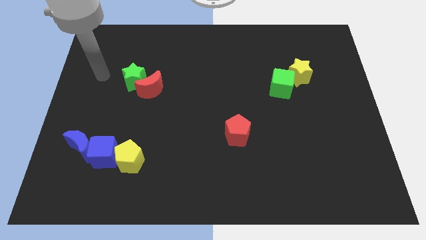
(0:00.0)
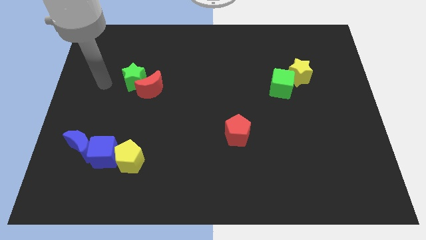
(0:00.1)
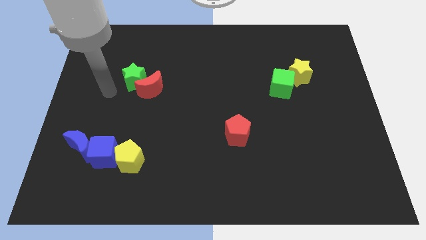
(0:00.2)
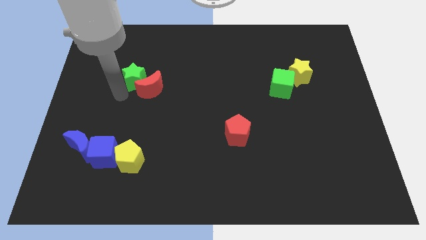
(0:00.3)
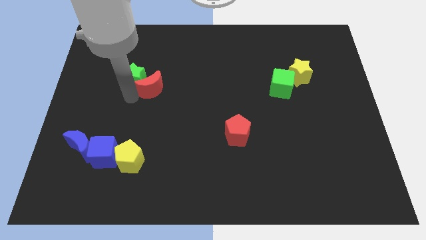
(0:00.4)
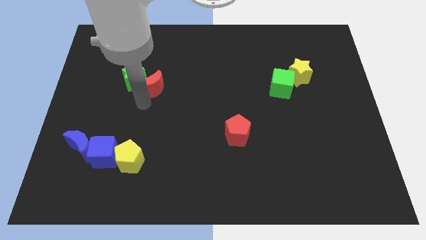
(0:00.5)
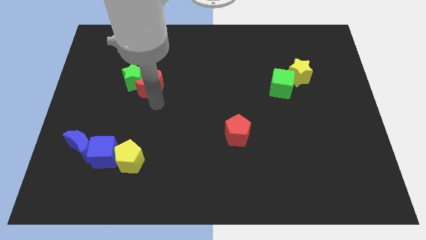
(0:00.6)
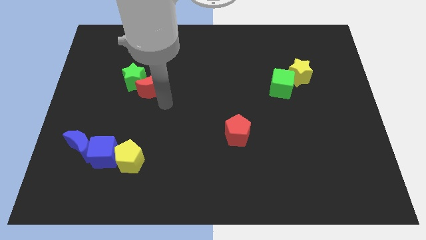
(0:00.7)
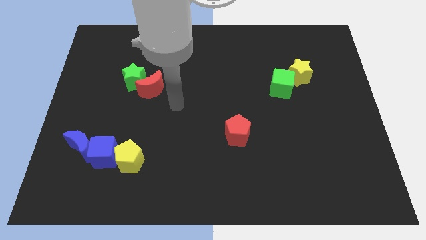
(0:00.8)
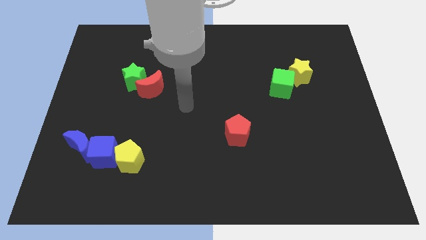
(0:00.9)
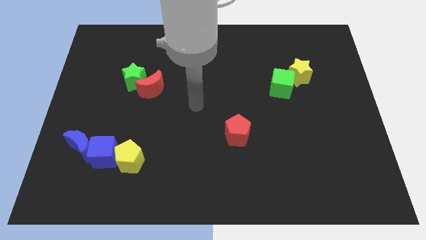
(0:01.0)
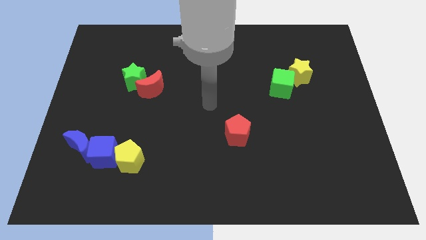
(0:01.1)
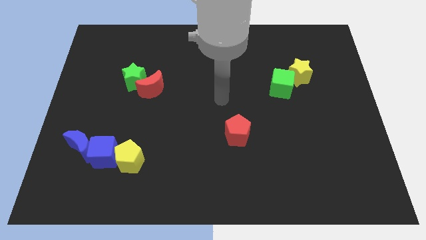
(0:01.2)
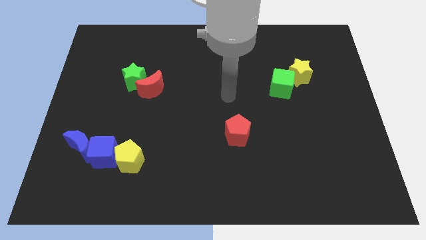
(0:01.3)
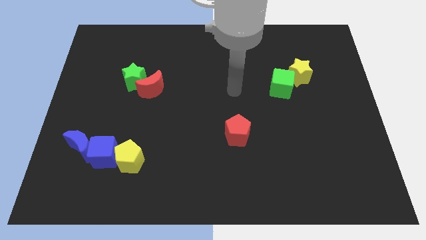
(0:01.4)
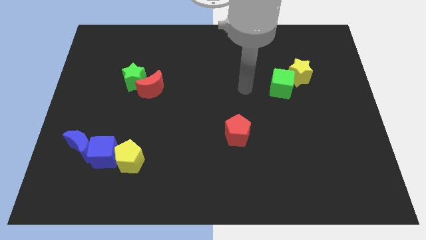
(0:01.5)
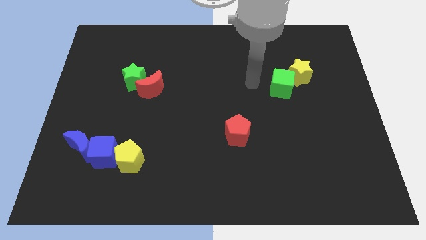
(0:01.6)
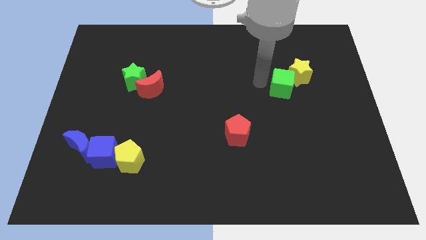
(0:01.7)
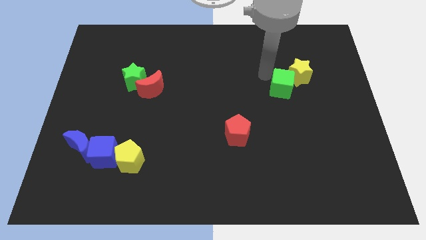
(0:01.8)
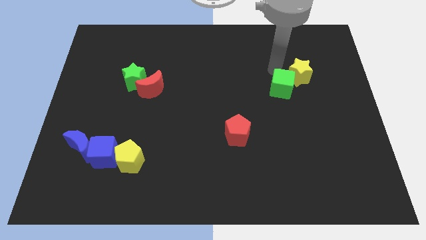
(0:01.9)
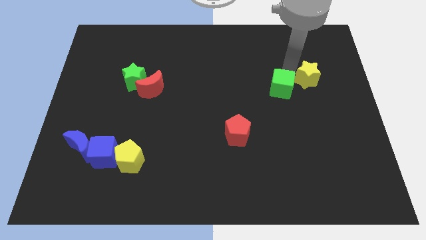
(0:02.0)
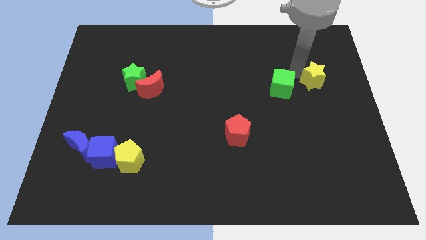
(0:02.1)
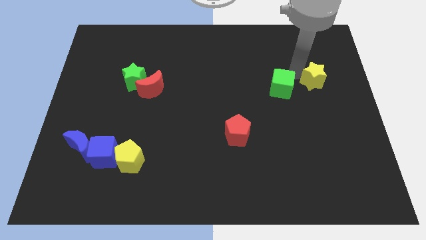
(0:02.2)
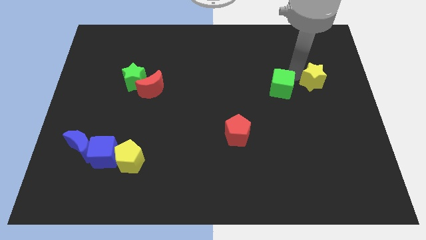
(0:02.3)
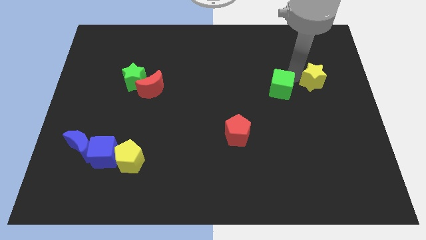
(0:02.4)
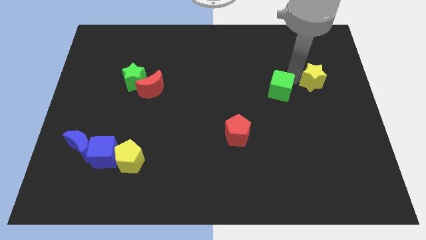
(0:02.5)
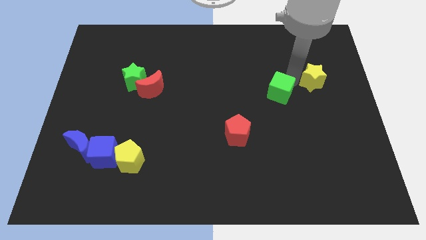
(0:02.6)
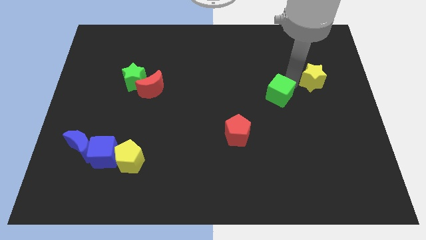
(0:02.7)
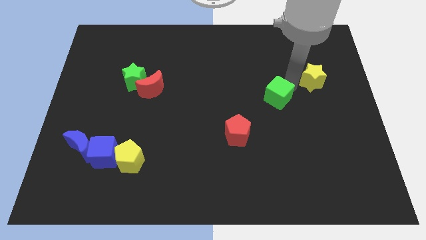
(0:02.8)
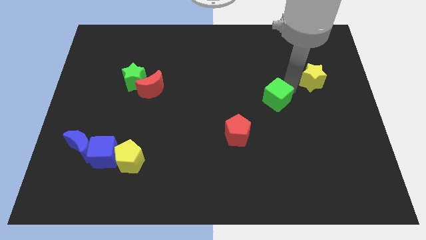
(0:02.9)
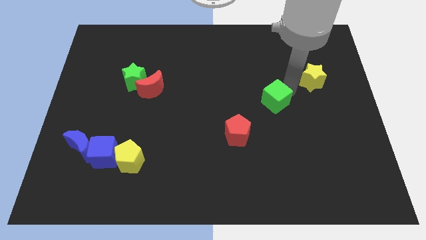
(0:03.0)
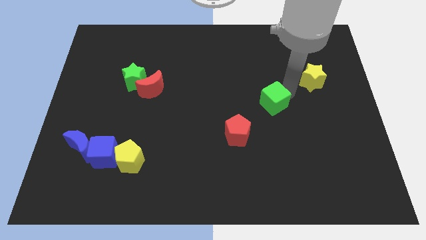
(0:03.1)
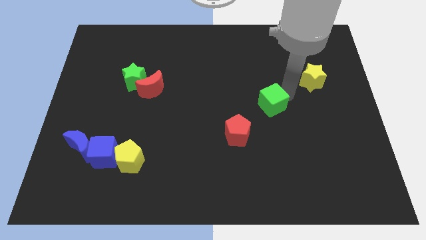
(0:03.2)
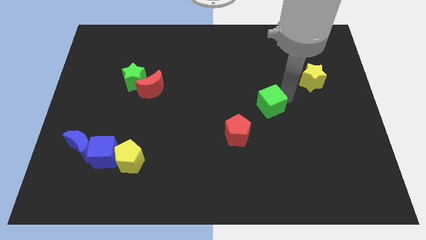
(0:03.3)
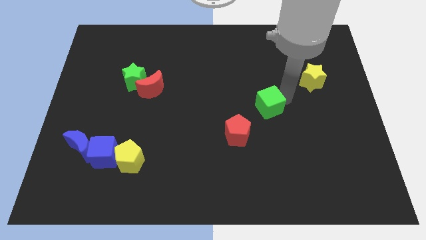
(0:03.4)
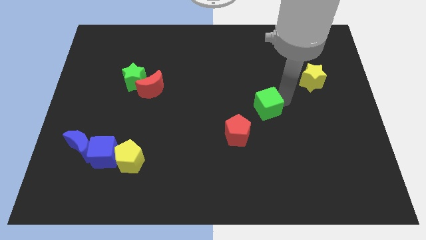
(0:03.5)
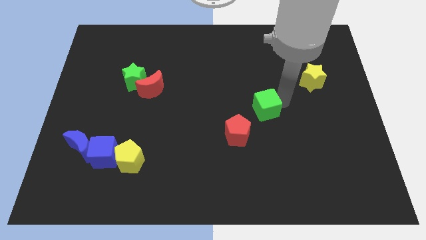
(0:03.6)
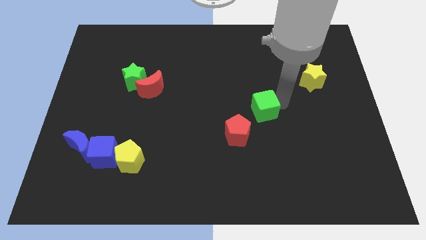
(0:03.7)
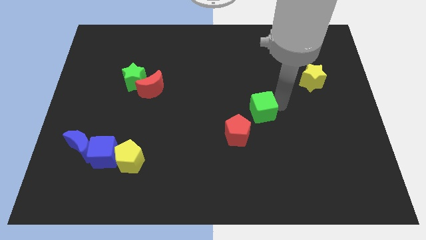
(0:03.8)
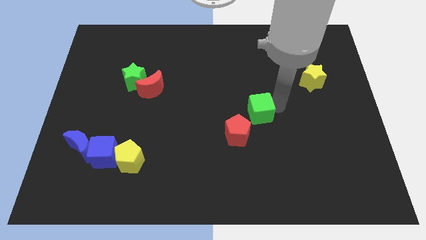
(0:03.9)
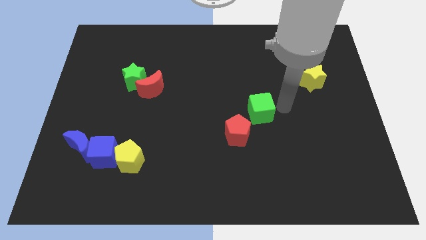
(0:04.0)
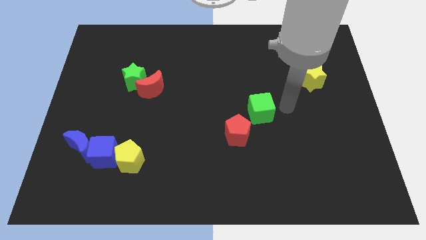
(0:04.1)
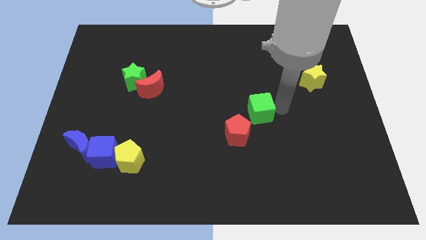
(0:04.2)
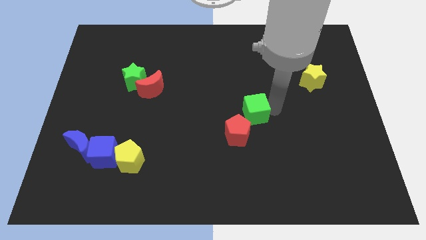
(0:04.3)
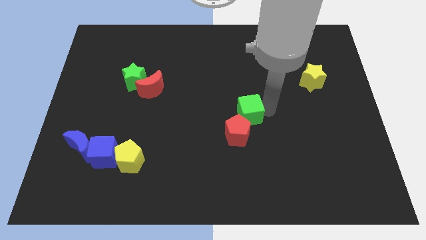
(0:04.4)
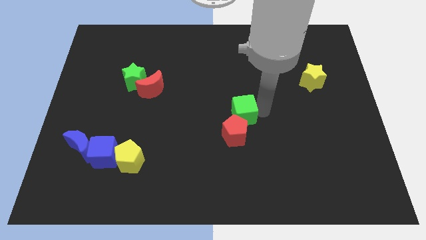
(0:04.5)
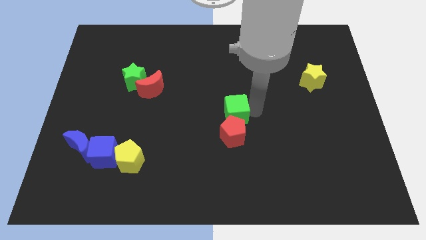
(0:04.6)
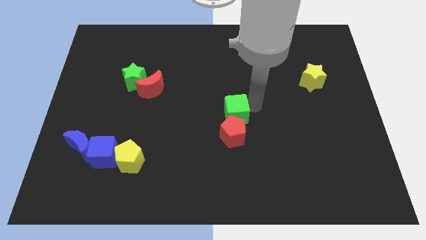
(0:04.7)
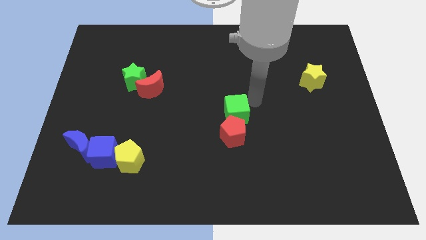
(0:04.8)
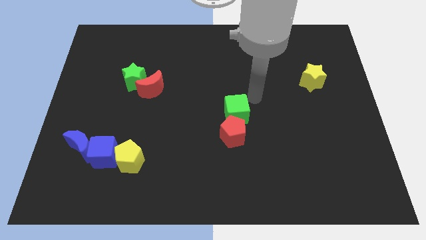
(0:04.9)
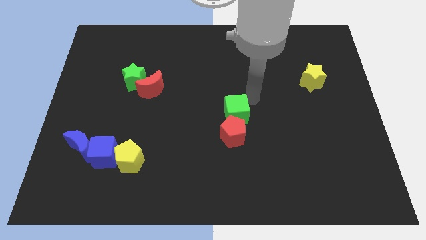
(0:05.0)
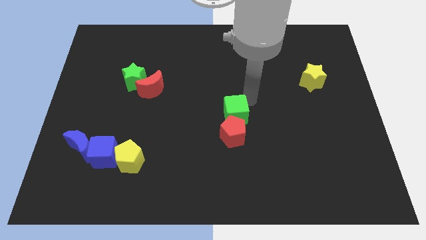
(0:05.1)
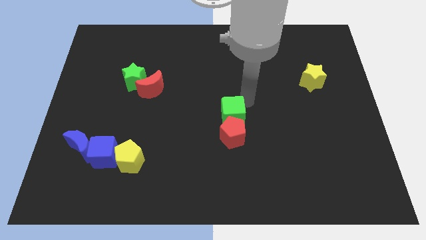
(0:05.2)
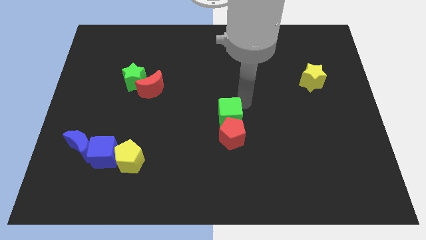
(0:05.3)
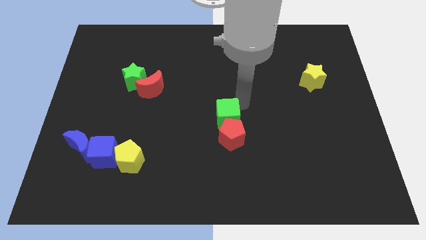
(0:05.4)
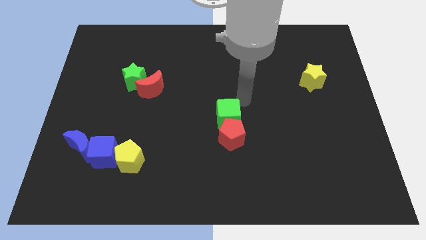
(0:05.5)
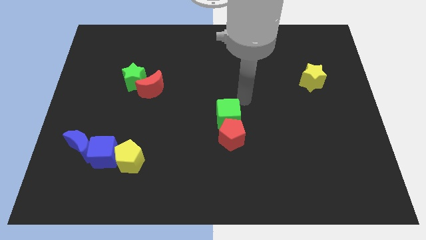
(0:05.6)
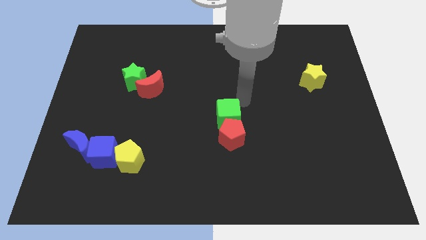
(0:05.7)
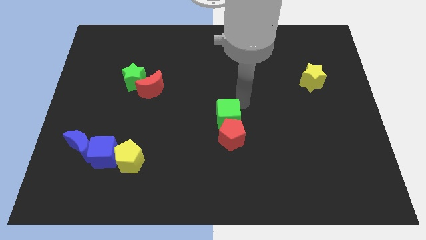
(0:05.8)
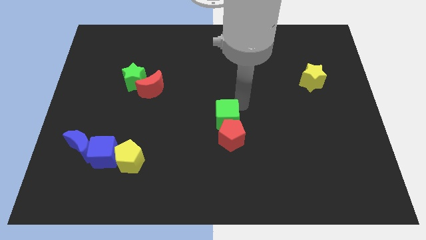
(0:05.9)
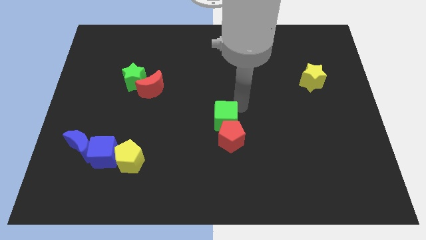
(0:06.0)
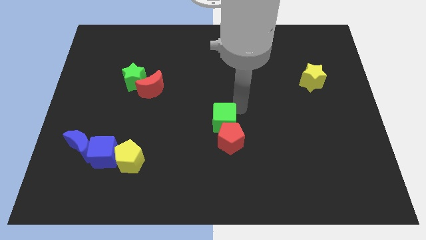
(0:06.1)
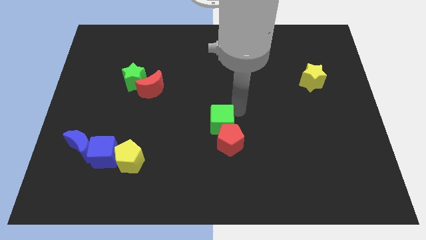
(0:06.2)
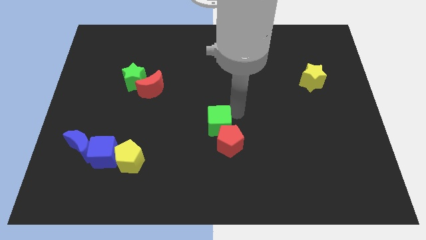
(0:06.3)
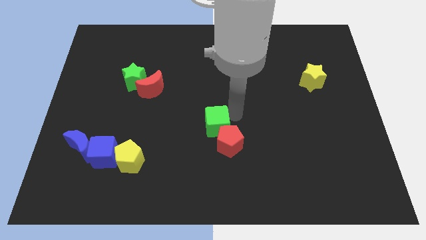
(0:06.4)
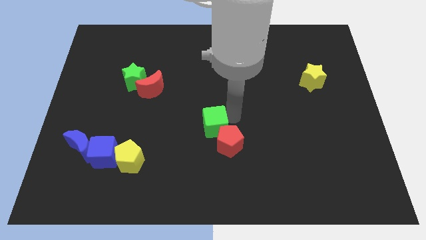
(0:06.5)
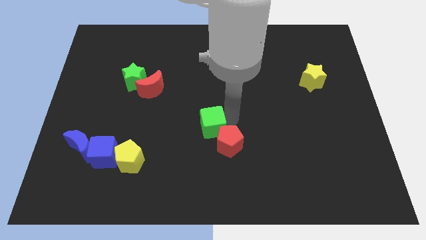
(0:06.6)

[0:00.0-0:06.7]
push the green cube downwards and to the left diagonally

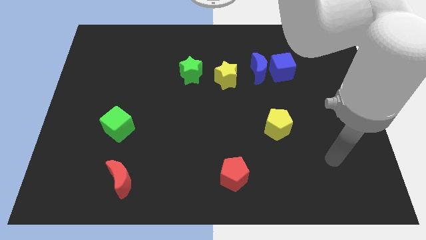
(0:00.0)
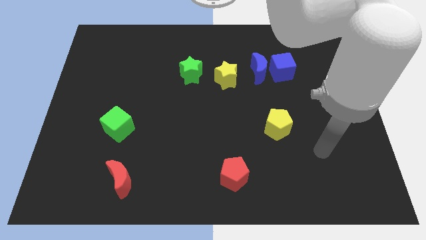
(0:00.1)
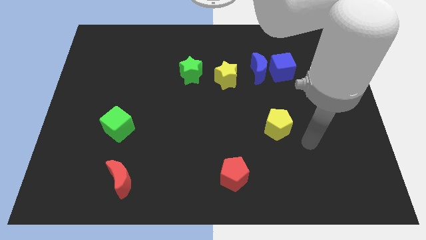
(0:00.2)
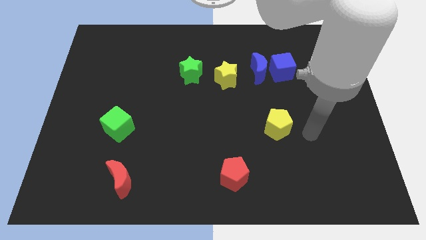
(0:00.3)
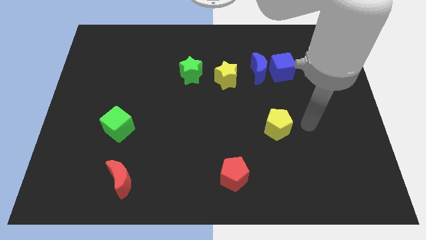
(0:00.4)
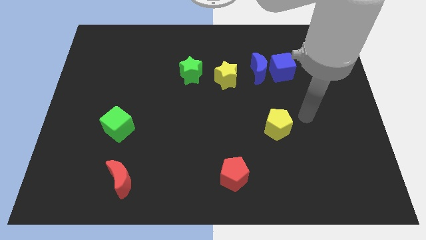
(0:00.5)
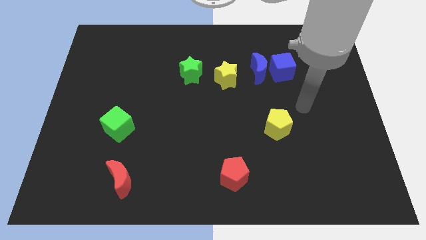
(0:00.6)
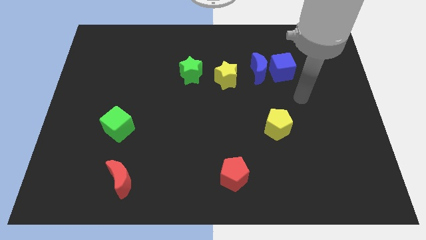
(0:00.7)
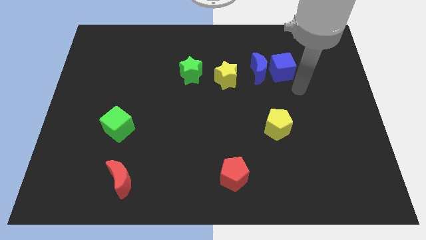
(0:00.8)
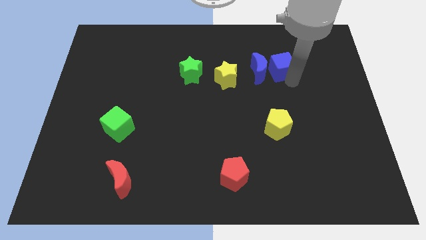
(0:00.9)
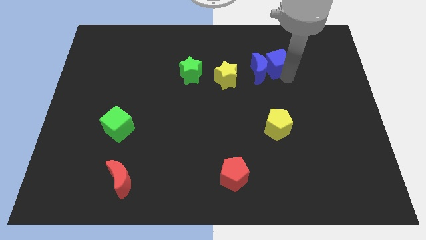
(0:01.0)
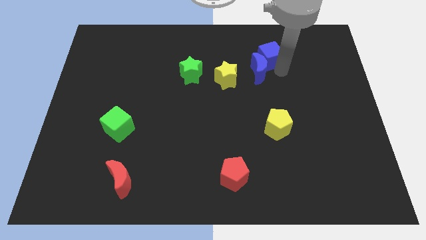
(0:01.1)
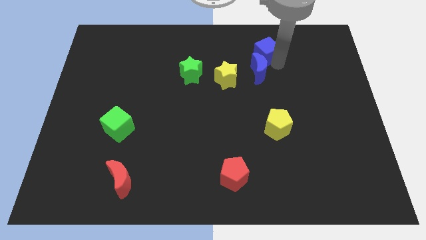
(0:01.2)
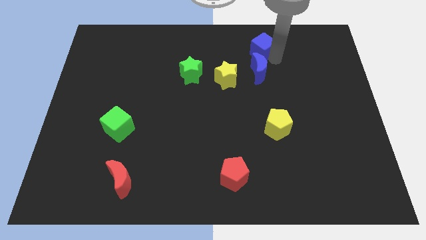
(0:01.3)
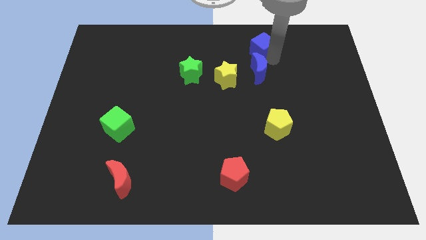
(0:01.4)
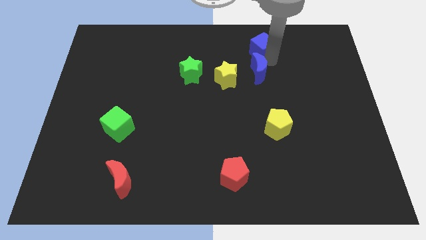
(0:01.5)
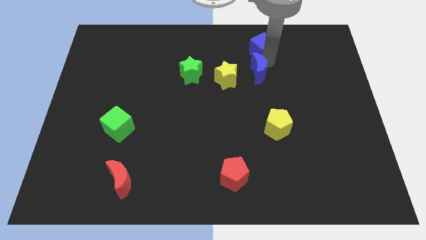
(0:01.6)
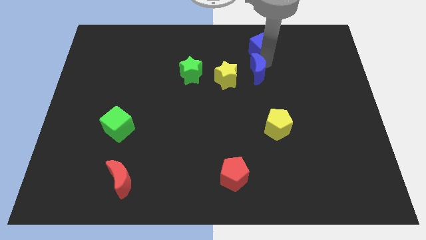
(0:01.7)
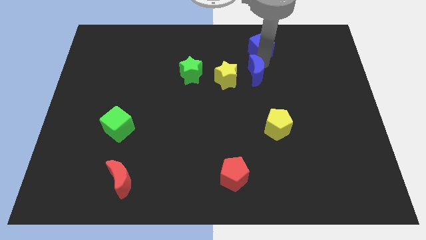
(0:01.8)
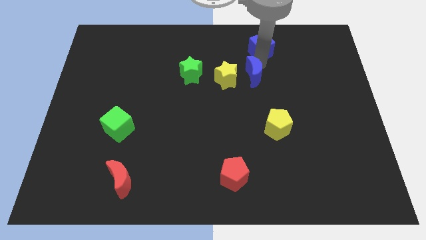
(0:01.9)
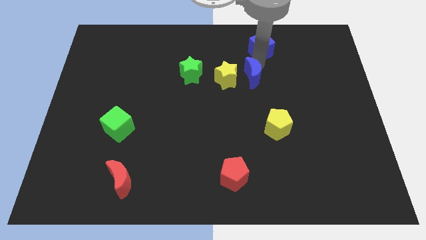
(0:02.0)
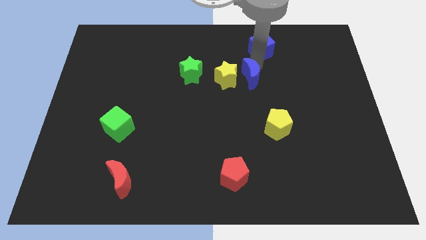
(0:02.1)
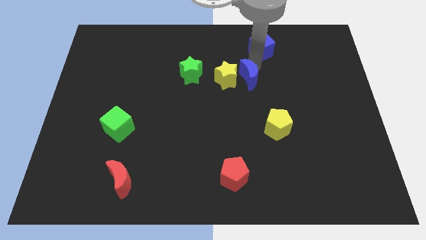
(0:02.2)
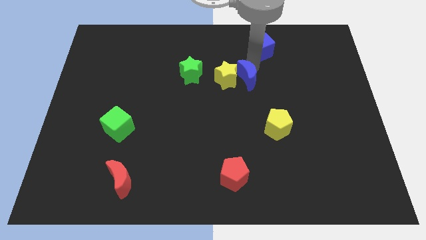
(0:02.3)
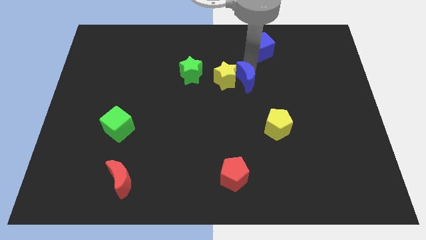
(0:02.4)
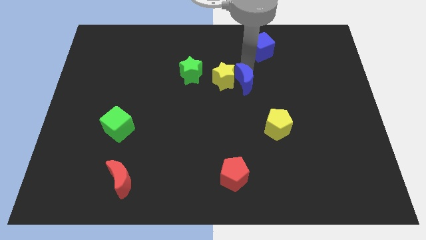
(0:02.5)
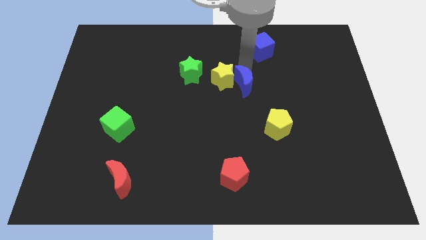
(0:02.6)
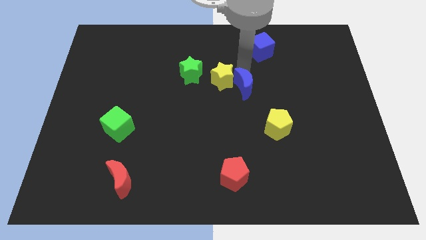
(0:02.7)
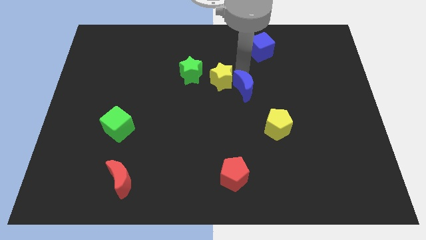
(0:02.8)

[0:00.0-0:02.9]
slide the blue moon a bit down and to the left diagonally
